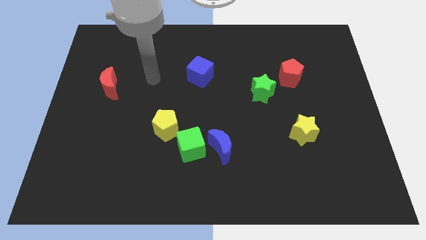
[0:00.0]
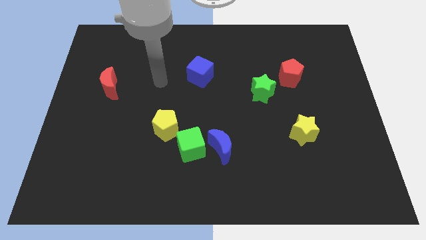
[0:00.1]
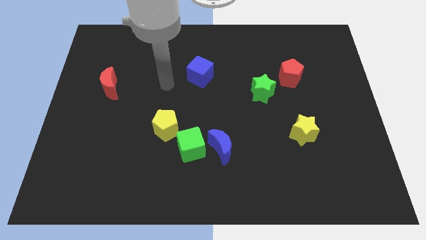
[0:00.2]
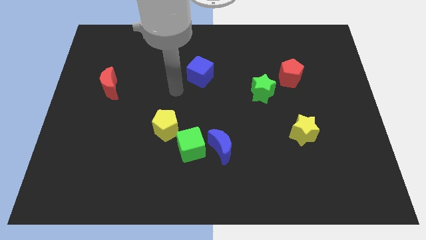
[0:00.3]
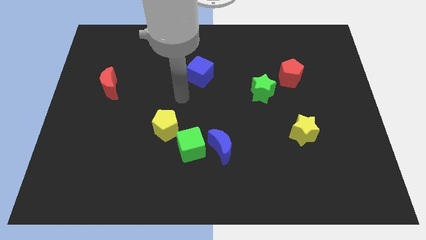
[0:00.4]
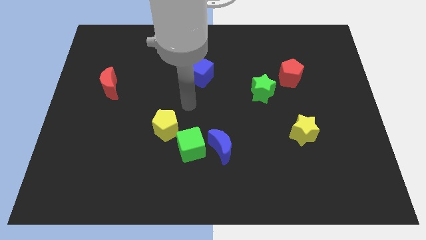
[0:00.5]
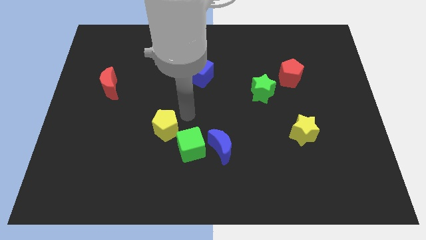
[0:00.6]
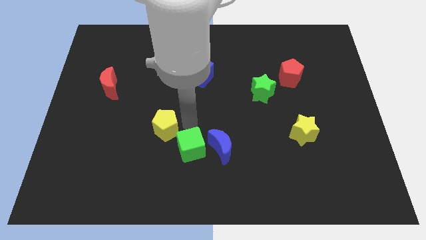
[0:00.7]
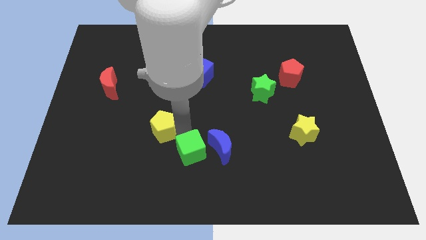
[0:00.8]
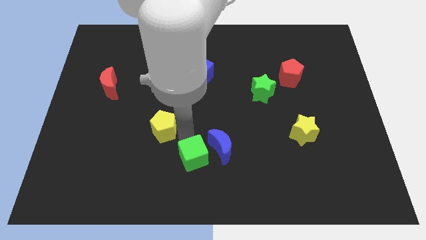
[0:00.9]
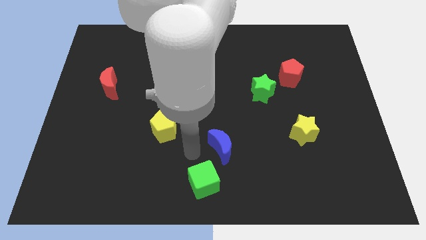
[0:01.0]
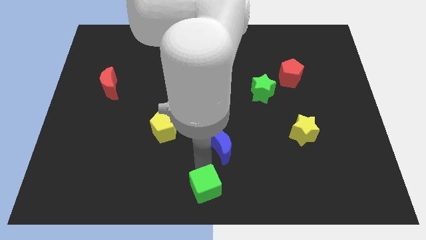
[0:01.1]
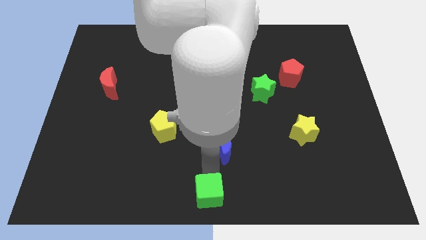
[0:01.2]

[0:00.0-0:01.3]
separate the blue moon from the green cube

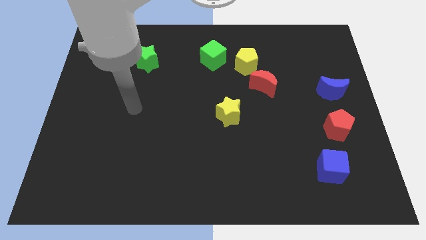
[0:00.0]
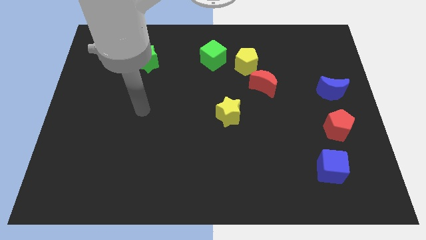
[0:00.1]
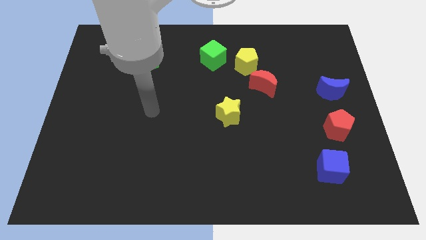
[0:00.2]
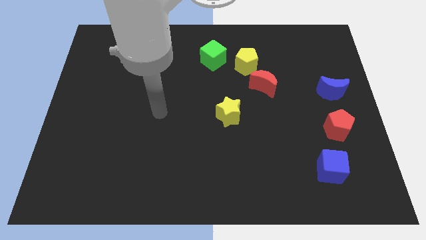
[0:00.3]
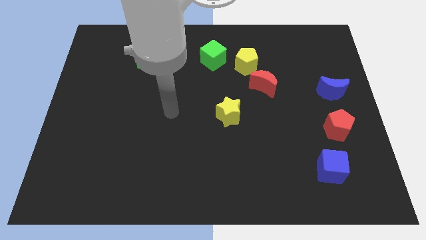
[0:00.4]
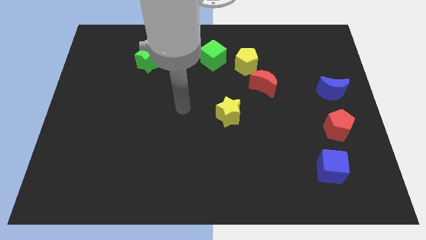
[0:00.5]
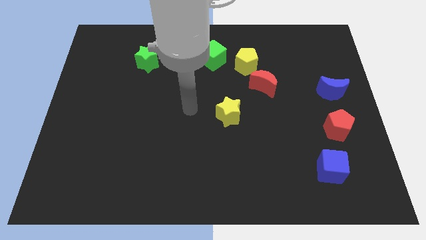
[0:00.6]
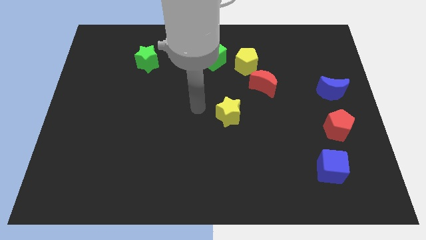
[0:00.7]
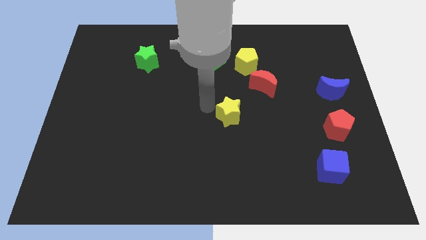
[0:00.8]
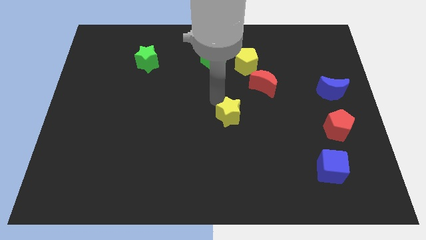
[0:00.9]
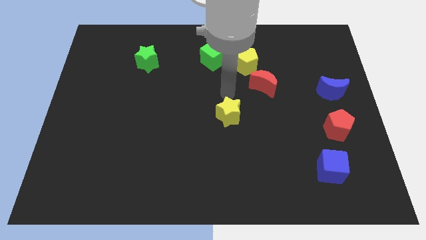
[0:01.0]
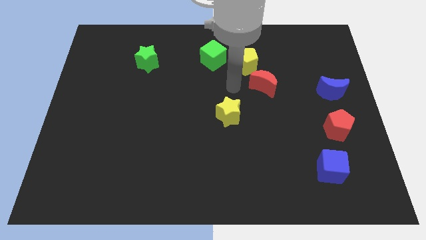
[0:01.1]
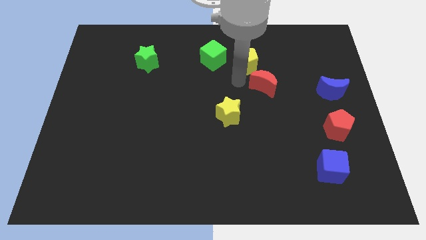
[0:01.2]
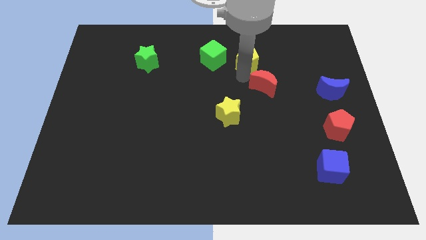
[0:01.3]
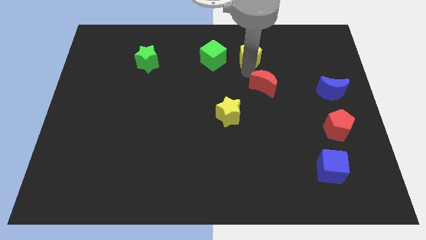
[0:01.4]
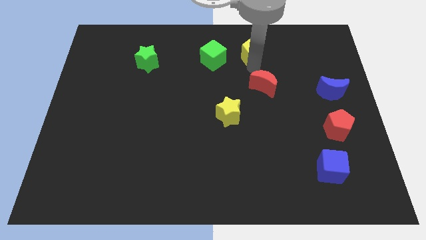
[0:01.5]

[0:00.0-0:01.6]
pull the red moon apart from the yellow pentagon

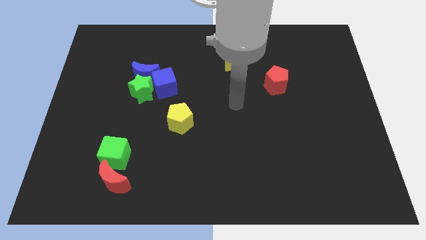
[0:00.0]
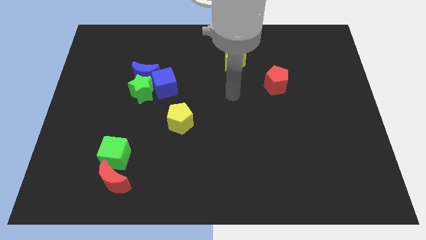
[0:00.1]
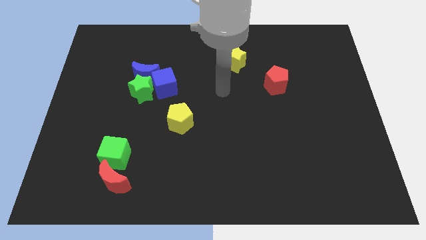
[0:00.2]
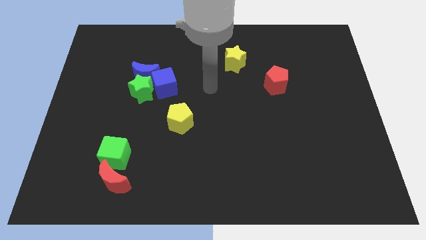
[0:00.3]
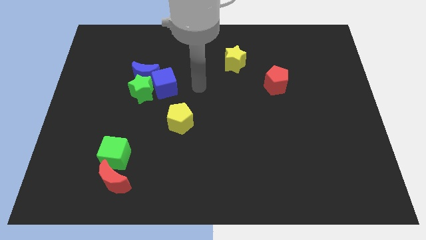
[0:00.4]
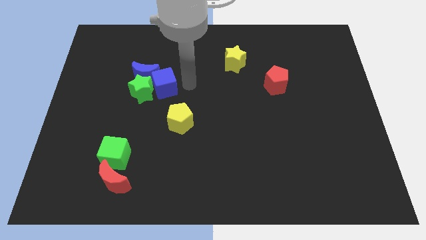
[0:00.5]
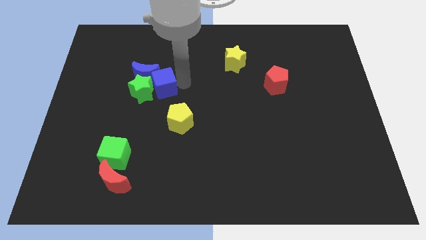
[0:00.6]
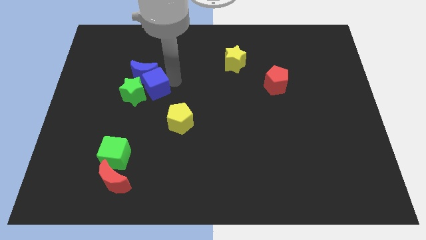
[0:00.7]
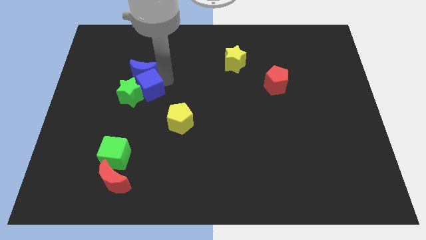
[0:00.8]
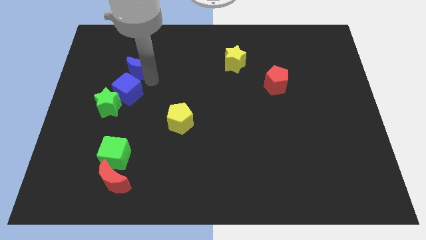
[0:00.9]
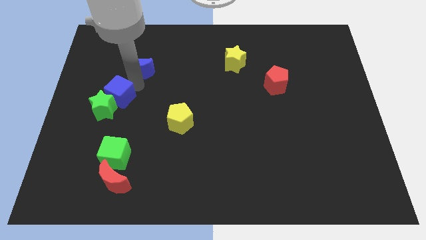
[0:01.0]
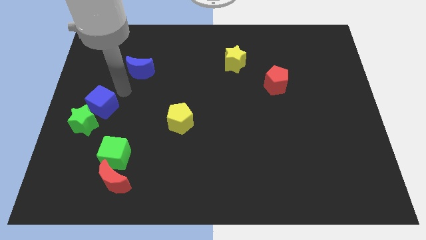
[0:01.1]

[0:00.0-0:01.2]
move the green star away from the blue moon and blue cube

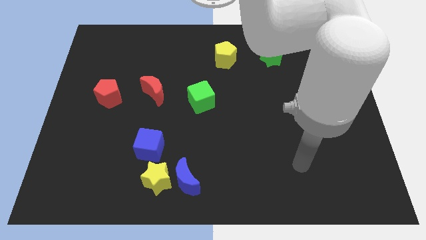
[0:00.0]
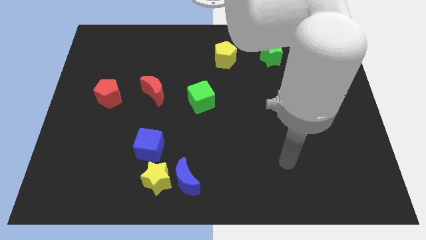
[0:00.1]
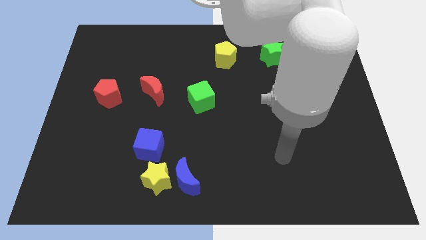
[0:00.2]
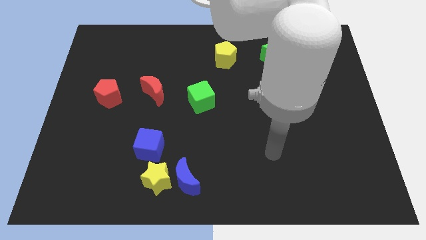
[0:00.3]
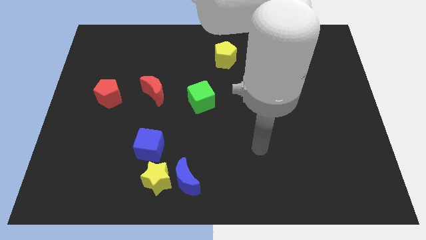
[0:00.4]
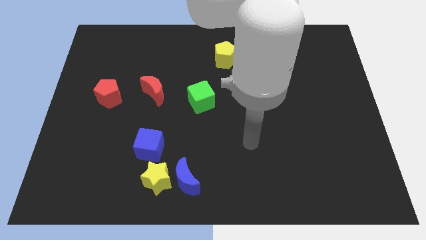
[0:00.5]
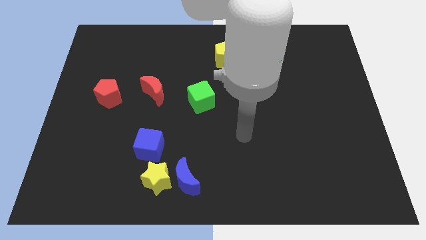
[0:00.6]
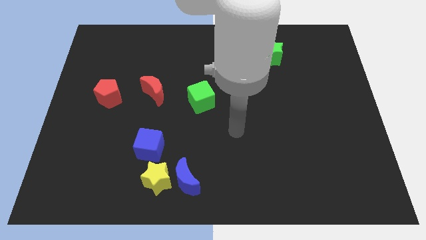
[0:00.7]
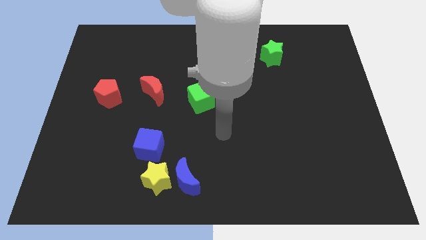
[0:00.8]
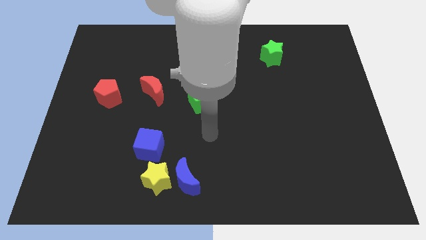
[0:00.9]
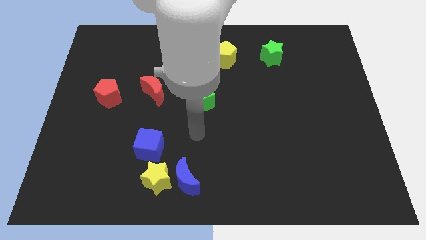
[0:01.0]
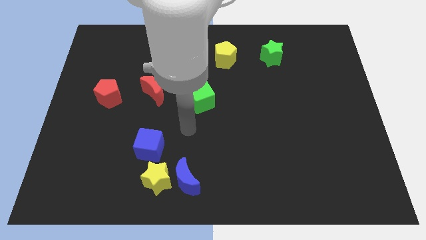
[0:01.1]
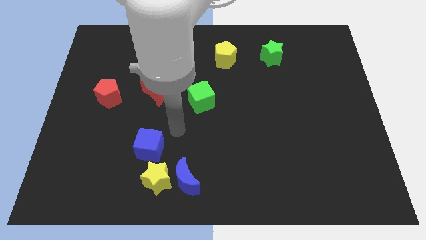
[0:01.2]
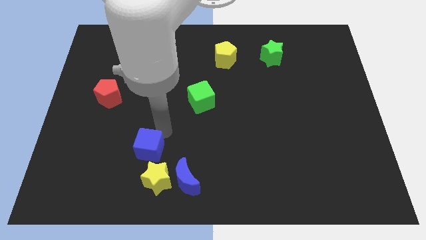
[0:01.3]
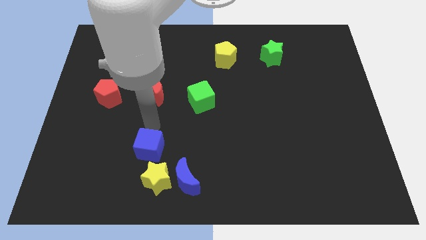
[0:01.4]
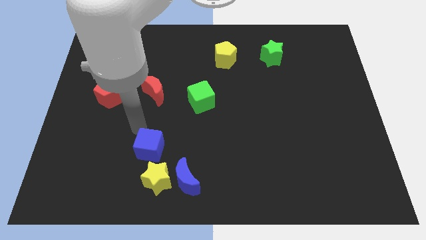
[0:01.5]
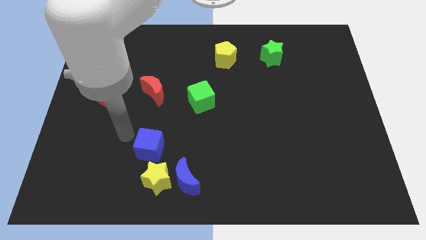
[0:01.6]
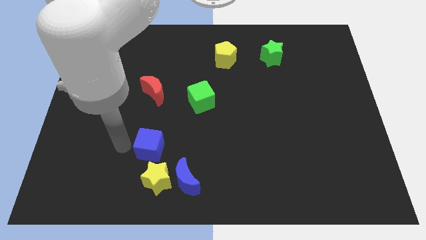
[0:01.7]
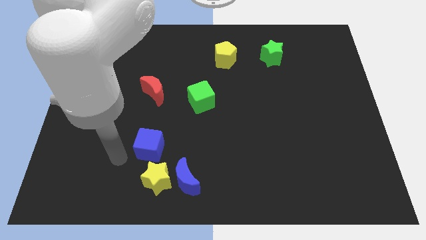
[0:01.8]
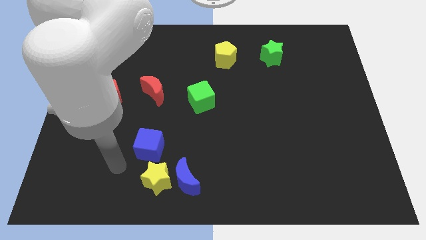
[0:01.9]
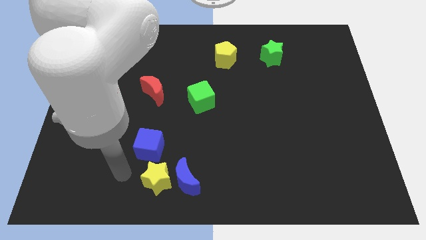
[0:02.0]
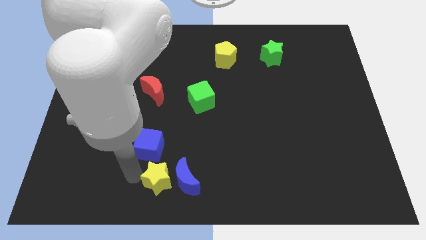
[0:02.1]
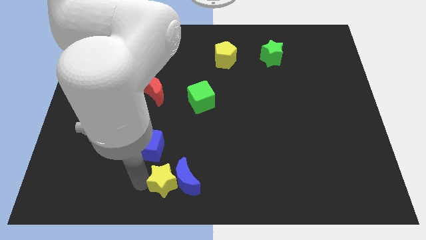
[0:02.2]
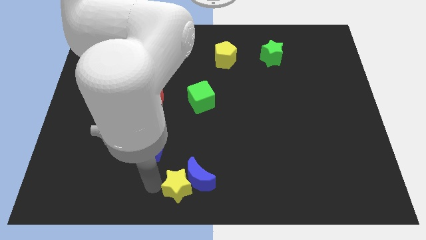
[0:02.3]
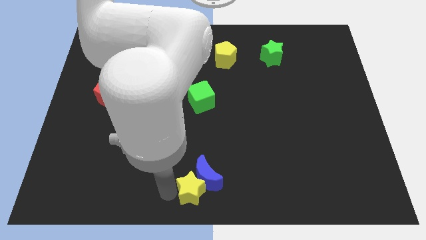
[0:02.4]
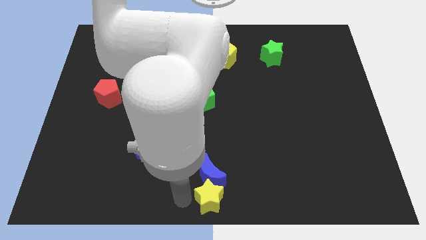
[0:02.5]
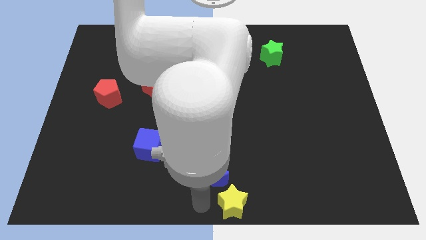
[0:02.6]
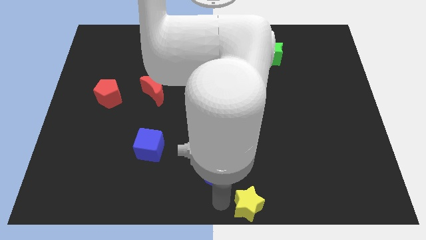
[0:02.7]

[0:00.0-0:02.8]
move the blue moon away from the yellow star

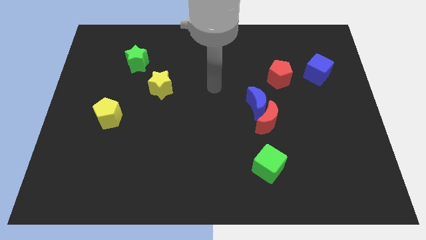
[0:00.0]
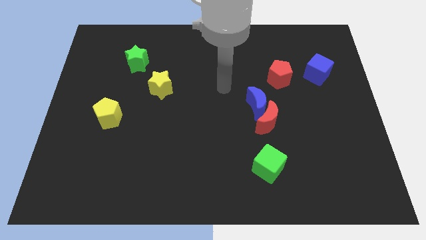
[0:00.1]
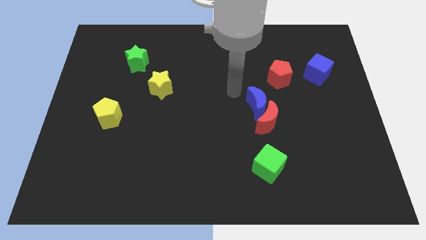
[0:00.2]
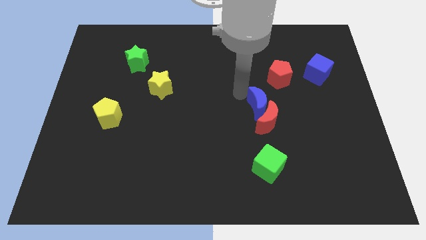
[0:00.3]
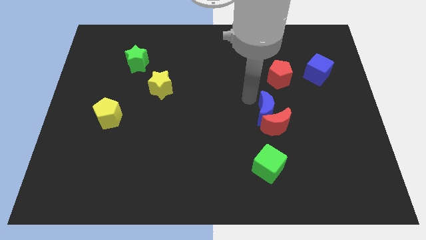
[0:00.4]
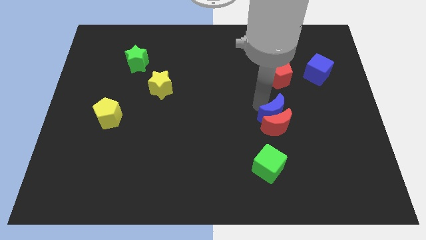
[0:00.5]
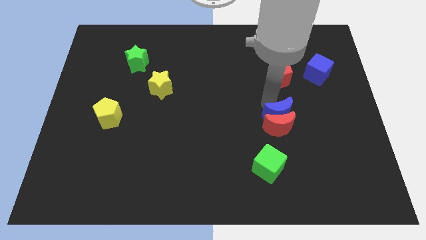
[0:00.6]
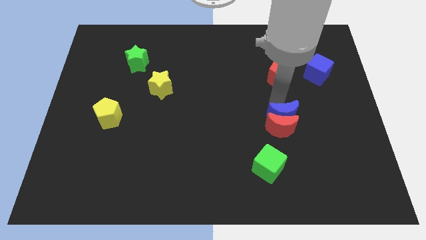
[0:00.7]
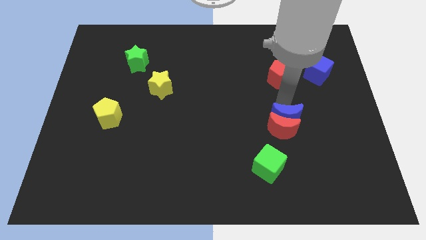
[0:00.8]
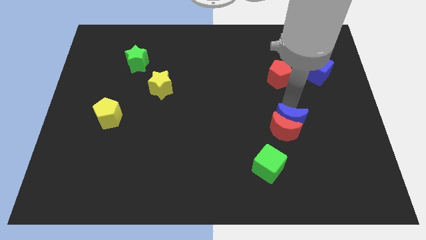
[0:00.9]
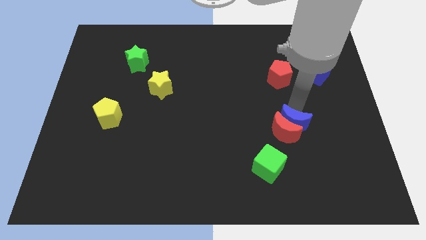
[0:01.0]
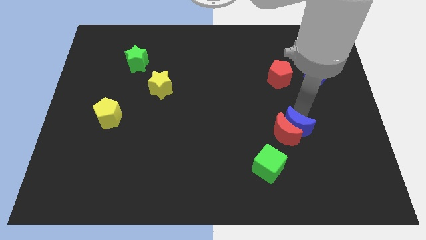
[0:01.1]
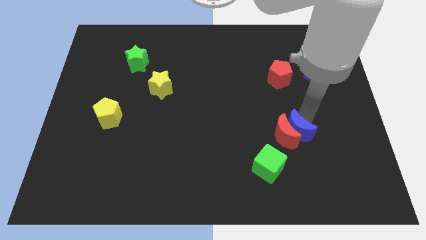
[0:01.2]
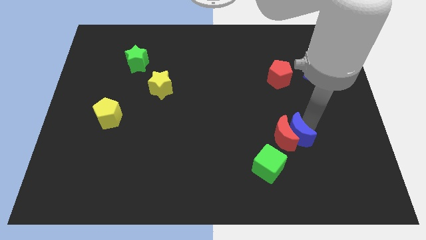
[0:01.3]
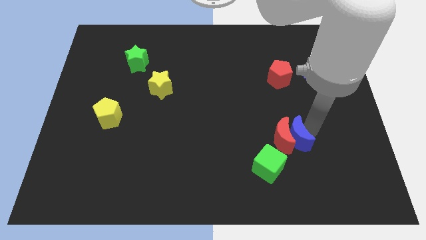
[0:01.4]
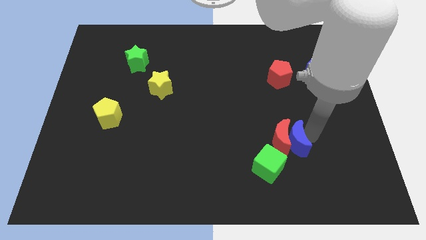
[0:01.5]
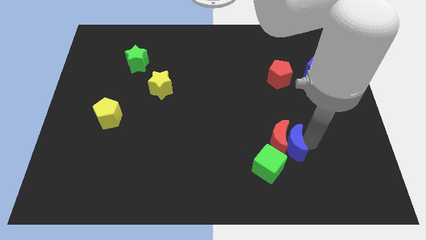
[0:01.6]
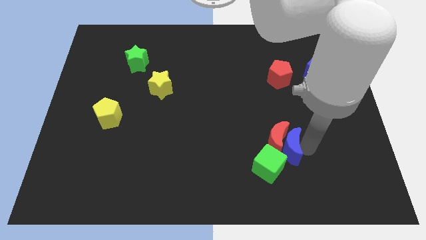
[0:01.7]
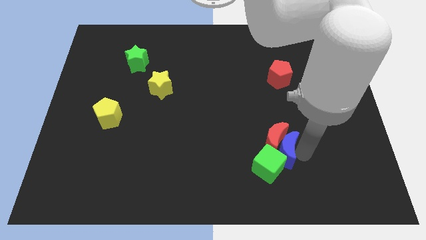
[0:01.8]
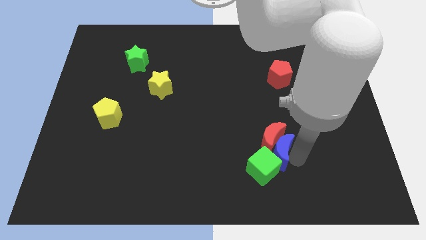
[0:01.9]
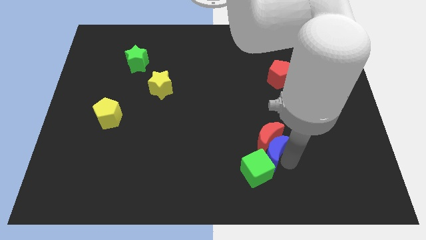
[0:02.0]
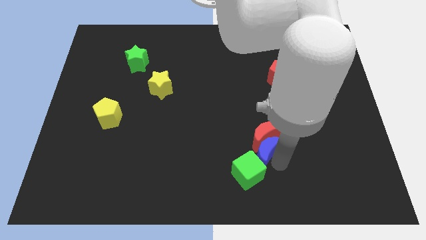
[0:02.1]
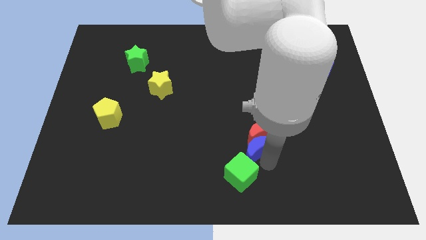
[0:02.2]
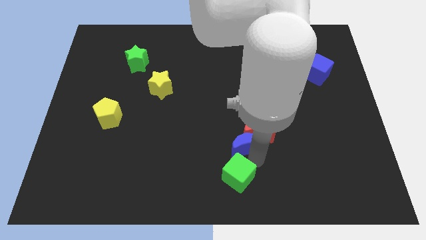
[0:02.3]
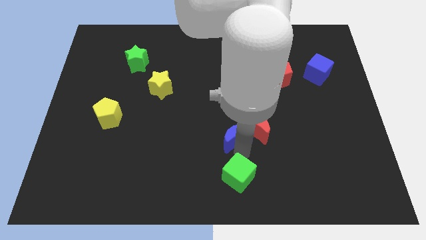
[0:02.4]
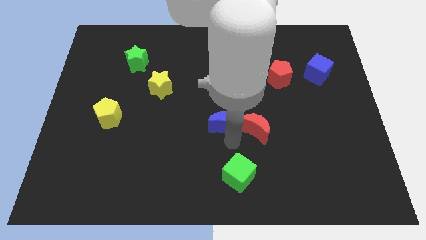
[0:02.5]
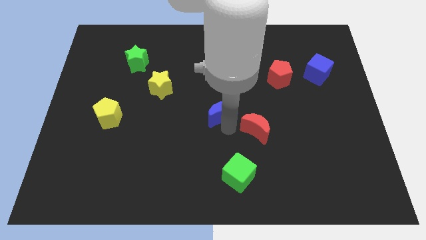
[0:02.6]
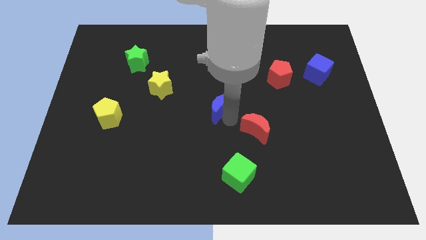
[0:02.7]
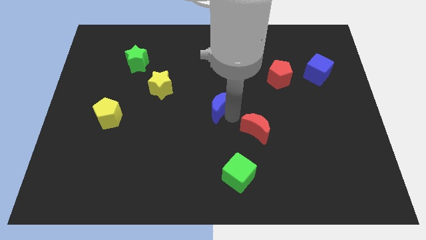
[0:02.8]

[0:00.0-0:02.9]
separate the red moon from the blue moon
